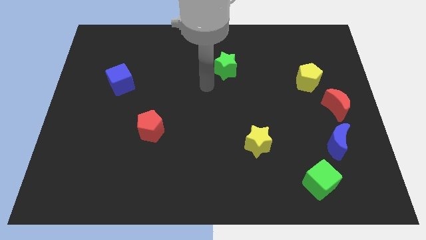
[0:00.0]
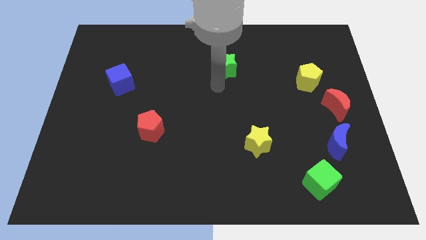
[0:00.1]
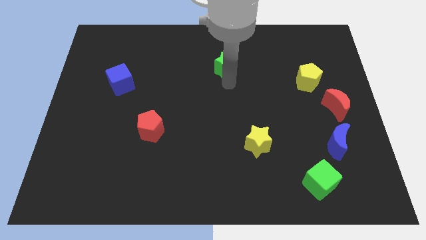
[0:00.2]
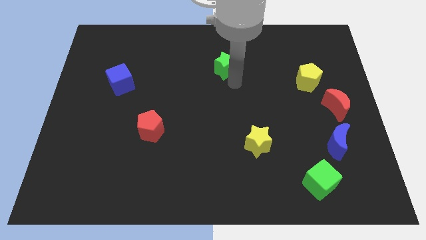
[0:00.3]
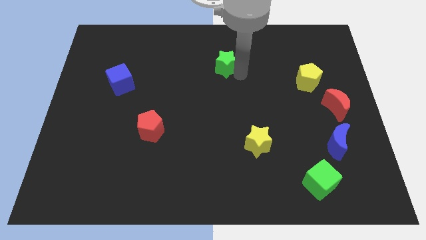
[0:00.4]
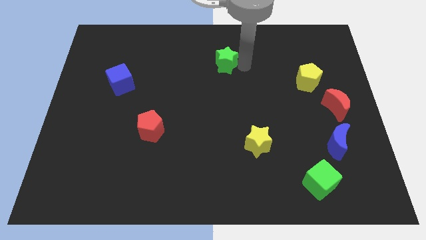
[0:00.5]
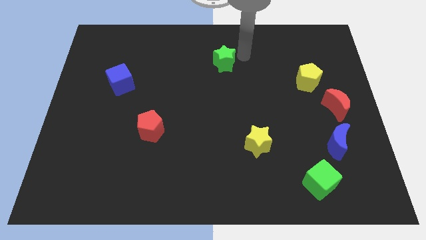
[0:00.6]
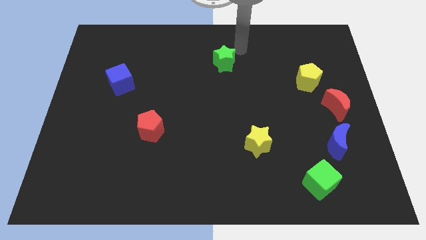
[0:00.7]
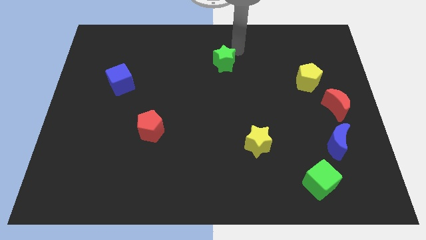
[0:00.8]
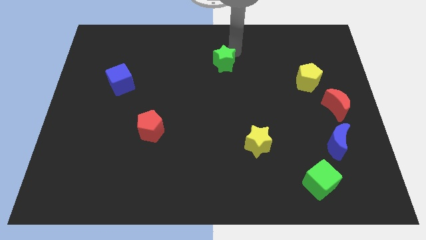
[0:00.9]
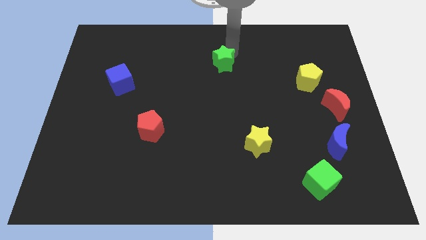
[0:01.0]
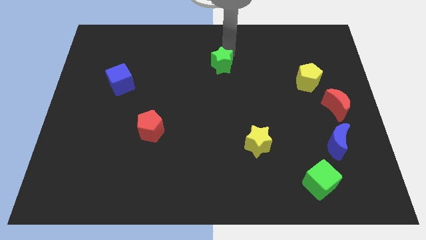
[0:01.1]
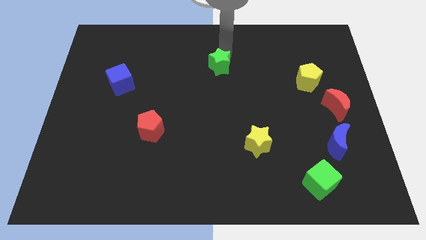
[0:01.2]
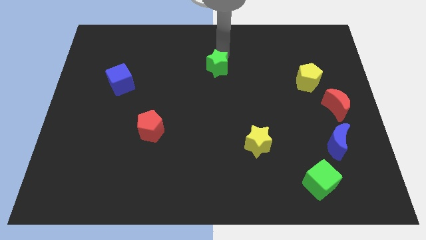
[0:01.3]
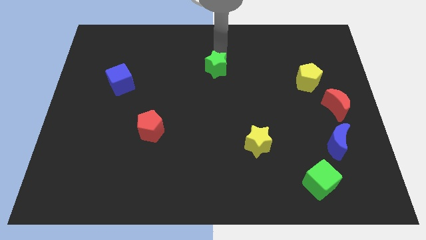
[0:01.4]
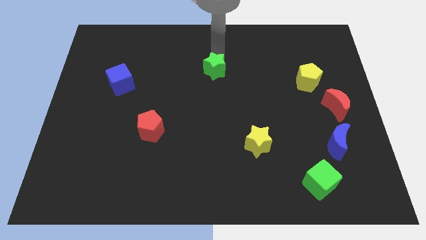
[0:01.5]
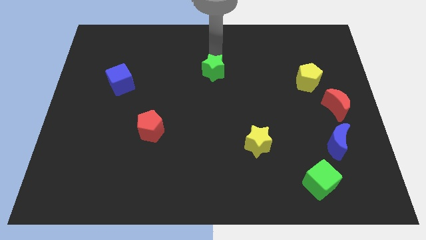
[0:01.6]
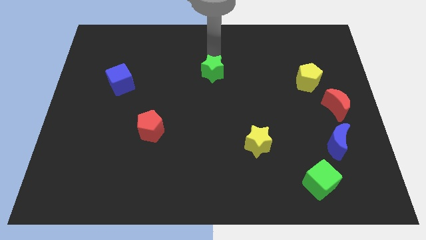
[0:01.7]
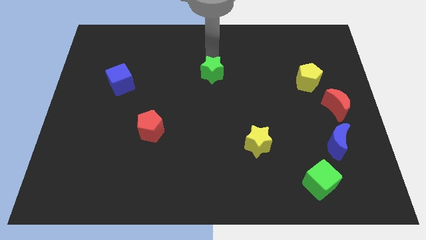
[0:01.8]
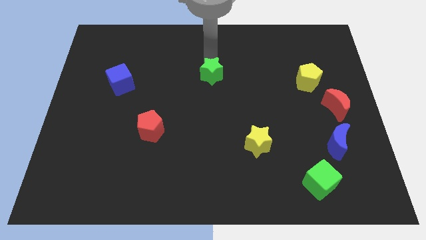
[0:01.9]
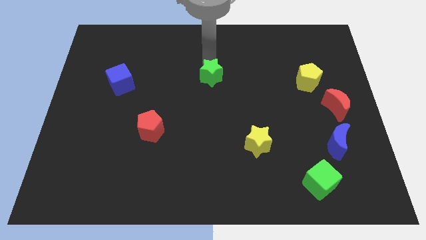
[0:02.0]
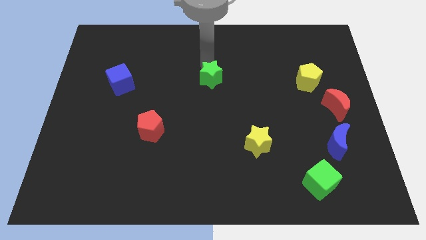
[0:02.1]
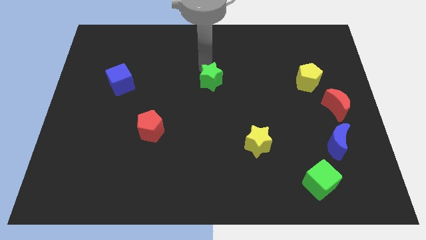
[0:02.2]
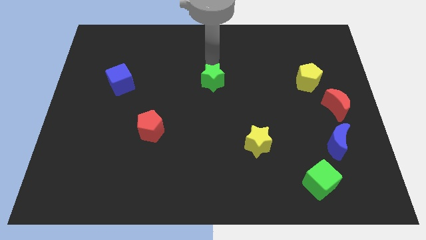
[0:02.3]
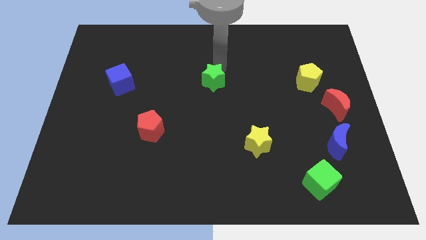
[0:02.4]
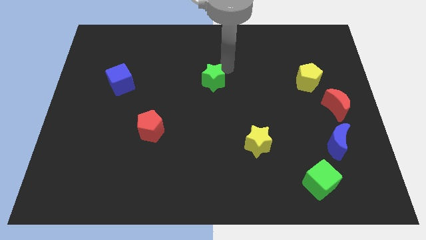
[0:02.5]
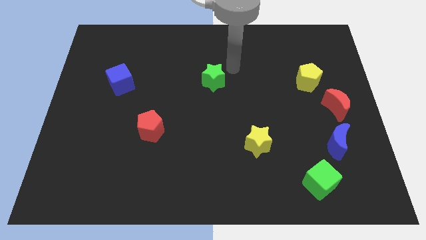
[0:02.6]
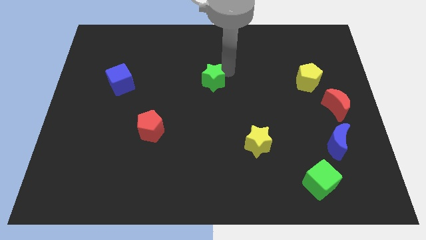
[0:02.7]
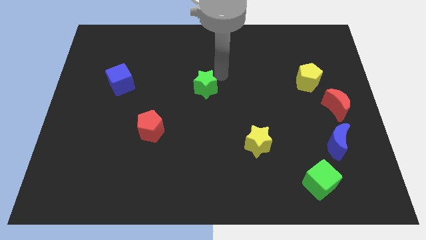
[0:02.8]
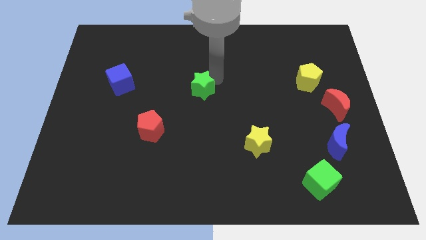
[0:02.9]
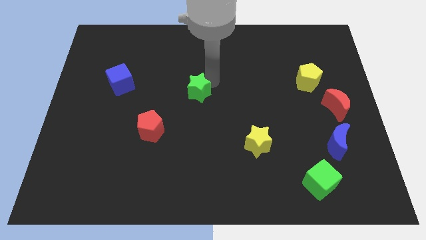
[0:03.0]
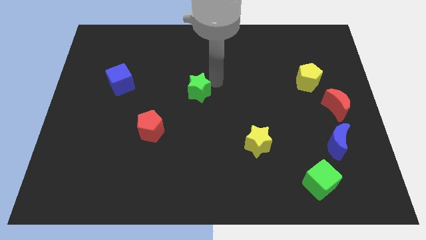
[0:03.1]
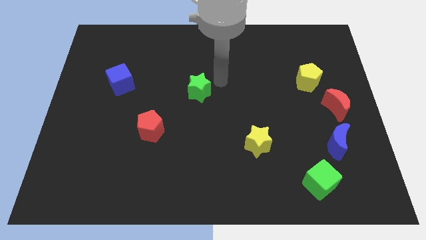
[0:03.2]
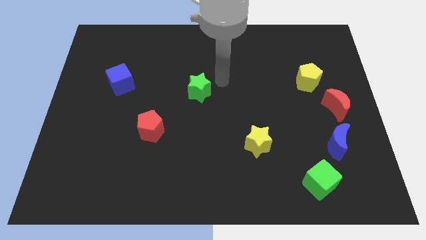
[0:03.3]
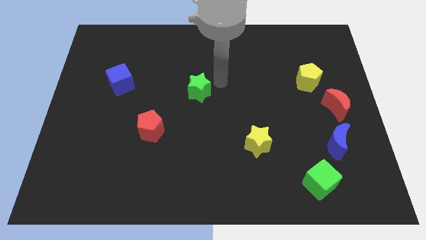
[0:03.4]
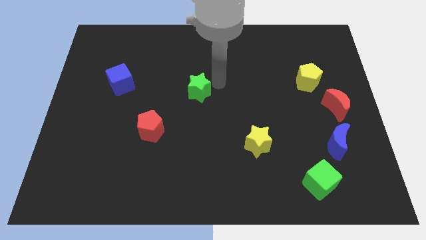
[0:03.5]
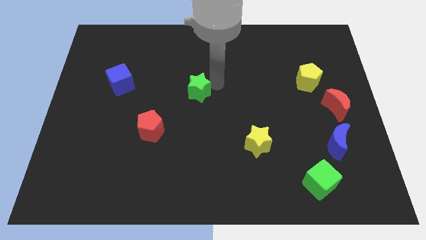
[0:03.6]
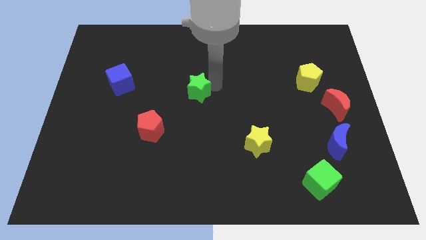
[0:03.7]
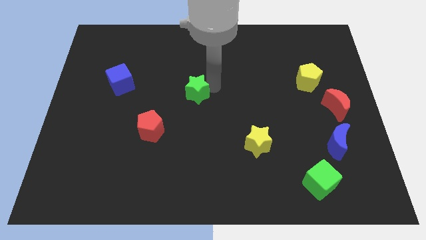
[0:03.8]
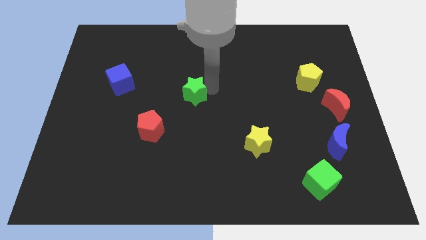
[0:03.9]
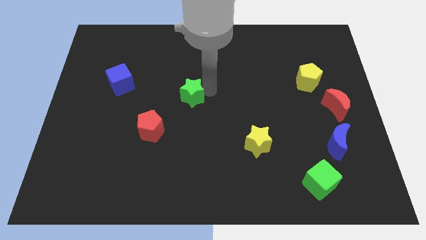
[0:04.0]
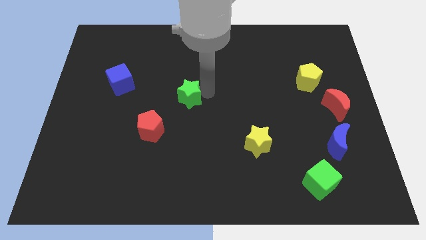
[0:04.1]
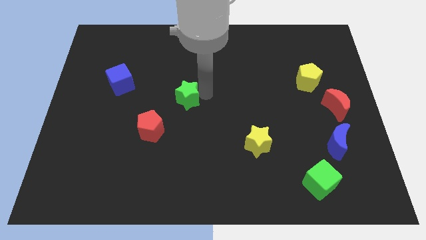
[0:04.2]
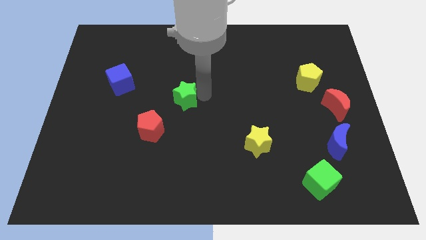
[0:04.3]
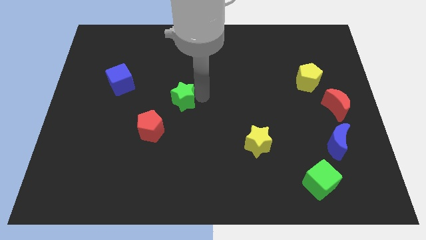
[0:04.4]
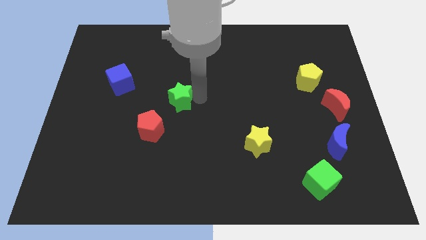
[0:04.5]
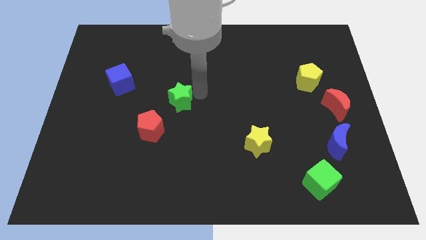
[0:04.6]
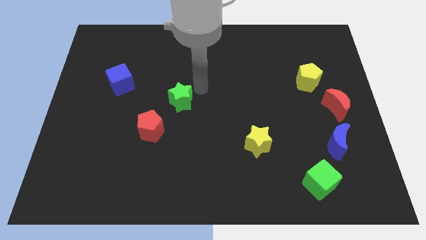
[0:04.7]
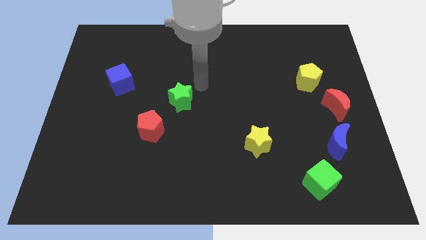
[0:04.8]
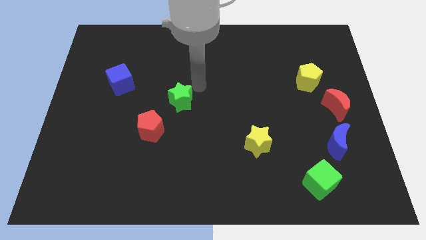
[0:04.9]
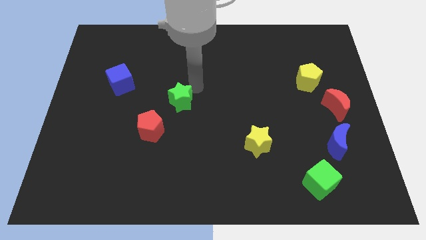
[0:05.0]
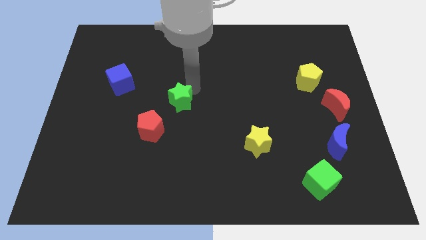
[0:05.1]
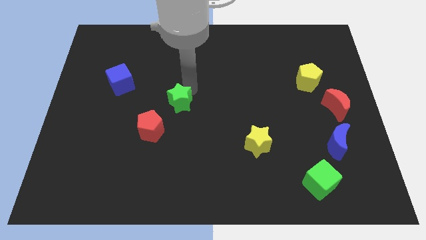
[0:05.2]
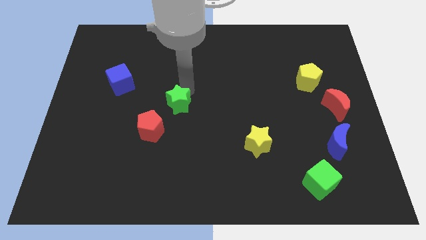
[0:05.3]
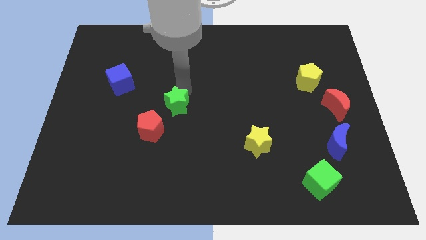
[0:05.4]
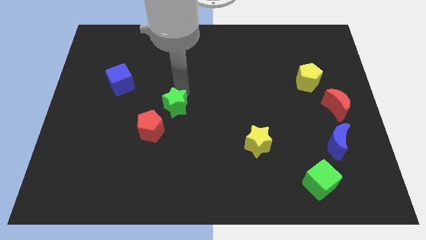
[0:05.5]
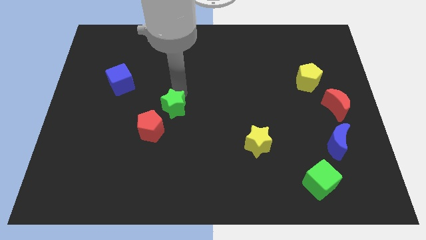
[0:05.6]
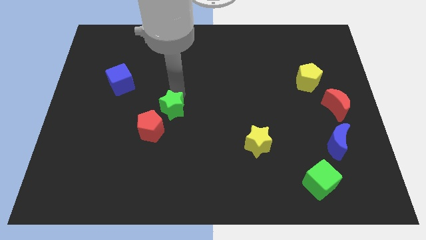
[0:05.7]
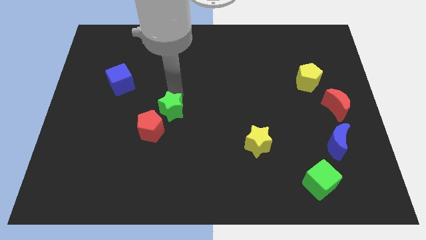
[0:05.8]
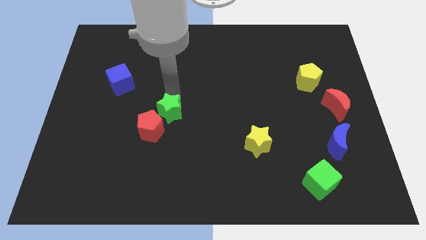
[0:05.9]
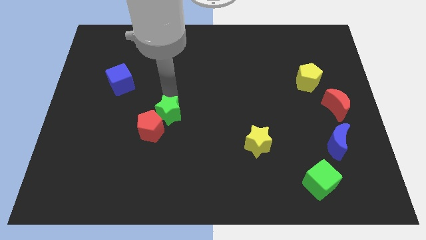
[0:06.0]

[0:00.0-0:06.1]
push the green star to the red pentagon

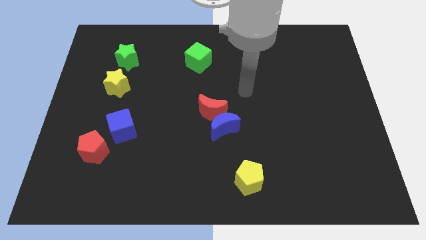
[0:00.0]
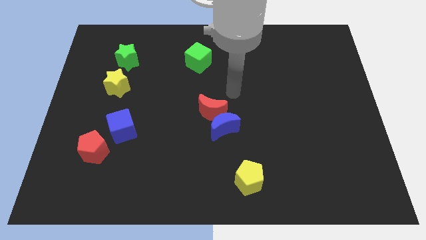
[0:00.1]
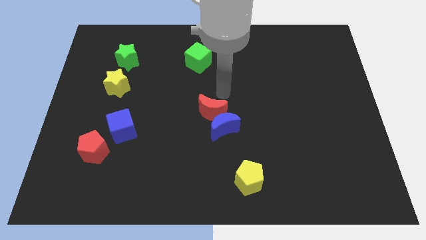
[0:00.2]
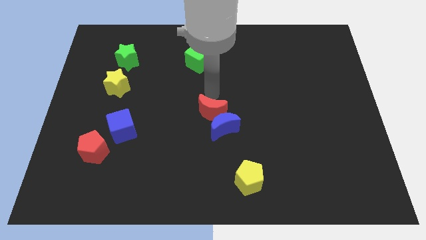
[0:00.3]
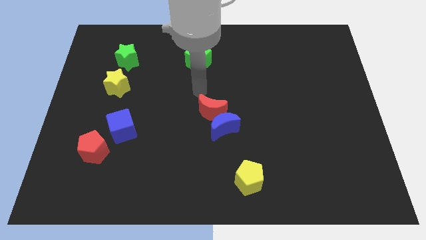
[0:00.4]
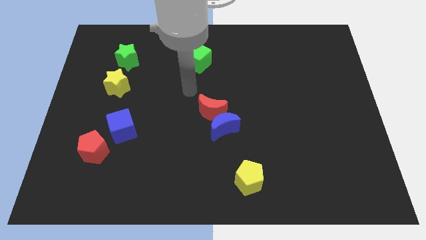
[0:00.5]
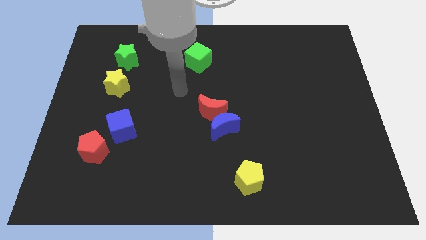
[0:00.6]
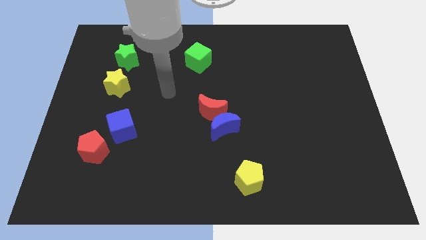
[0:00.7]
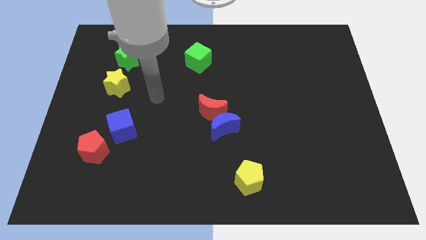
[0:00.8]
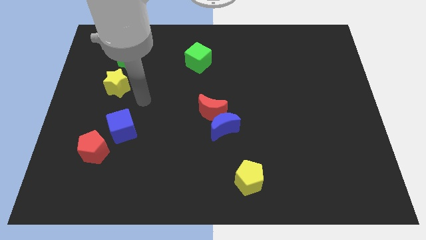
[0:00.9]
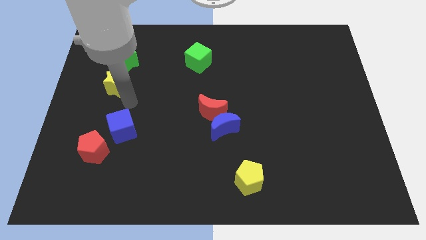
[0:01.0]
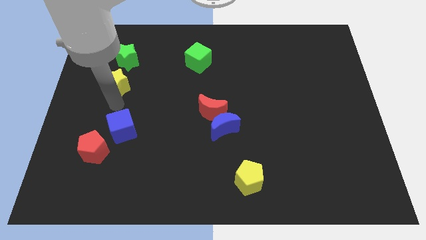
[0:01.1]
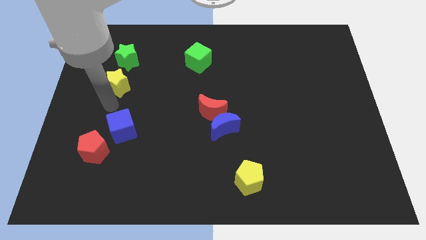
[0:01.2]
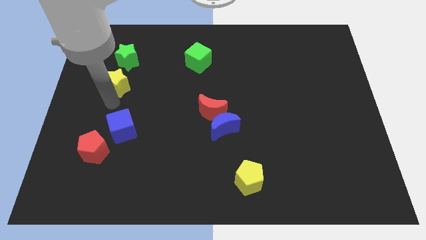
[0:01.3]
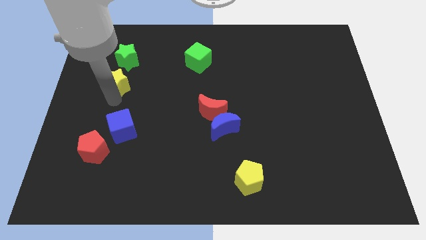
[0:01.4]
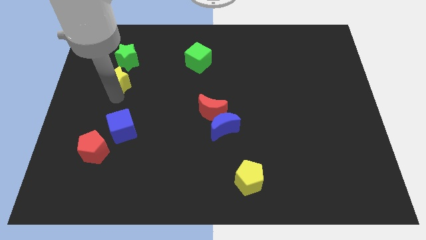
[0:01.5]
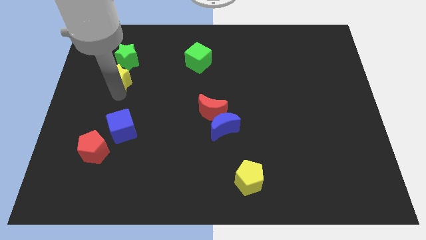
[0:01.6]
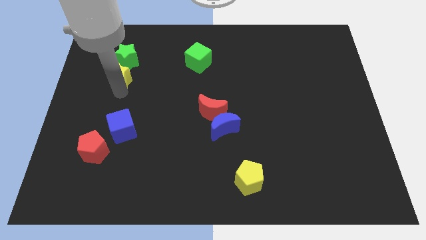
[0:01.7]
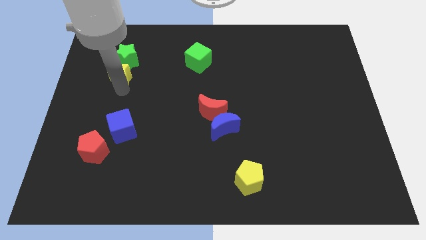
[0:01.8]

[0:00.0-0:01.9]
push the yellow star to the green star
